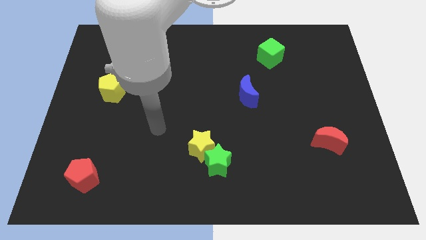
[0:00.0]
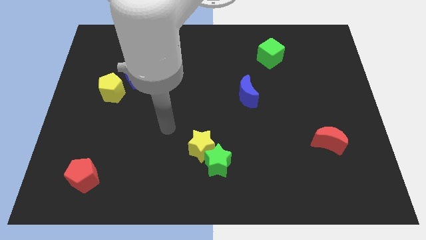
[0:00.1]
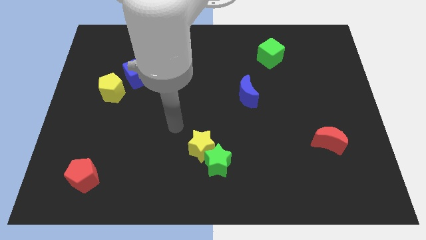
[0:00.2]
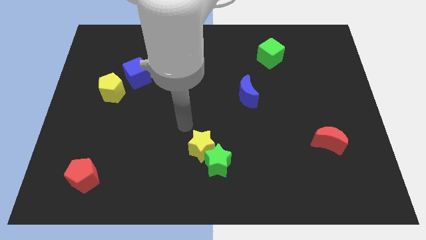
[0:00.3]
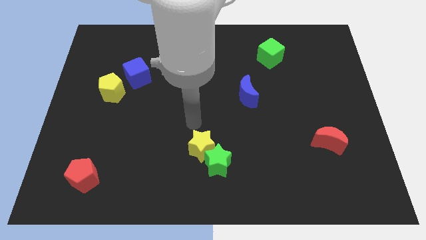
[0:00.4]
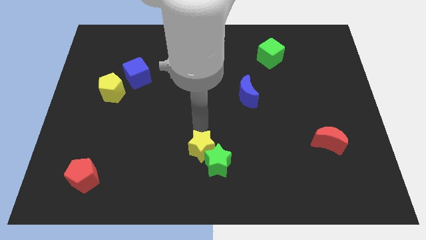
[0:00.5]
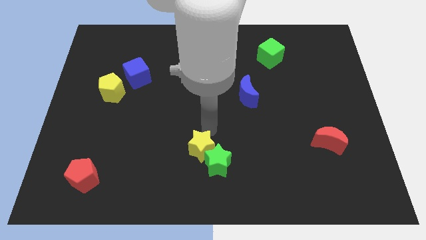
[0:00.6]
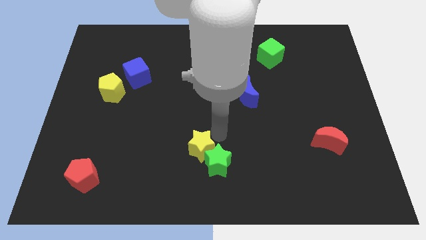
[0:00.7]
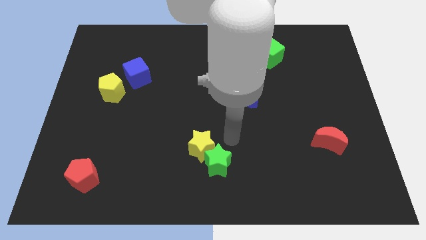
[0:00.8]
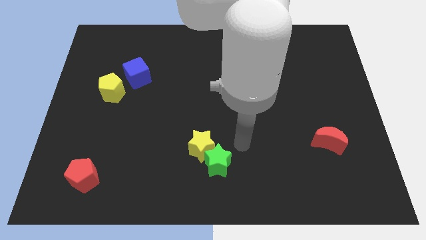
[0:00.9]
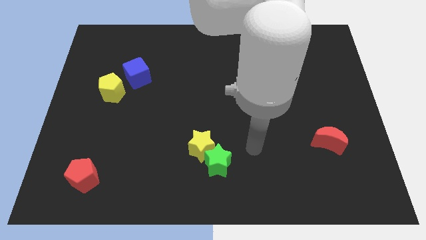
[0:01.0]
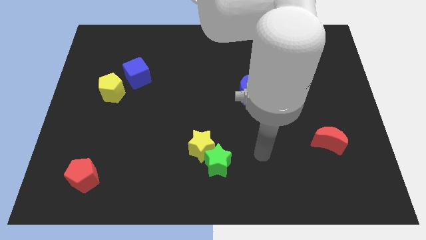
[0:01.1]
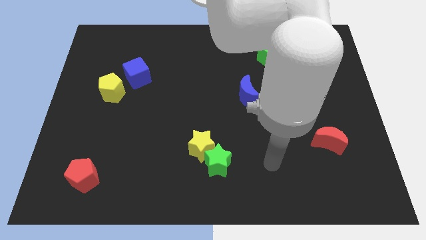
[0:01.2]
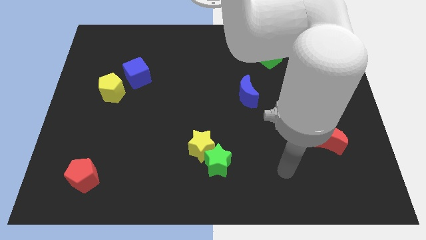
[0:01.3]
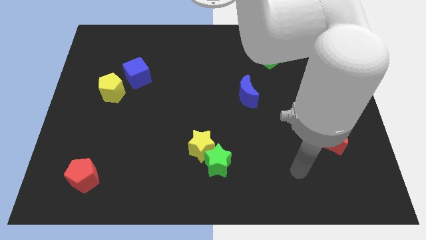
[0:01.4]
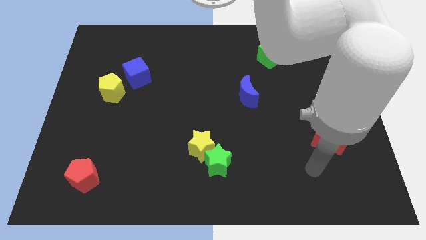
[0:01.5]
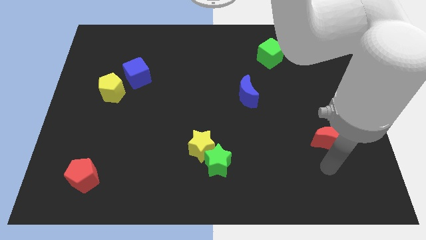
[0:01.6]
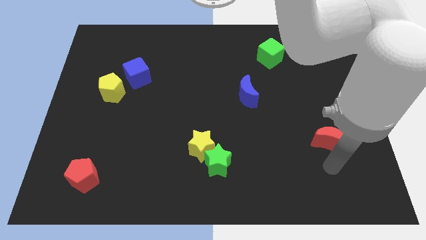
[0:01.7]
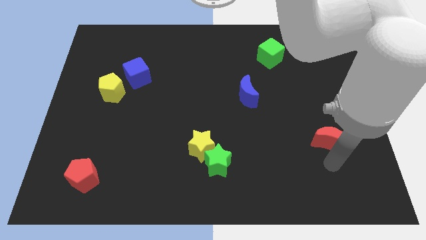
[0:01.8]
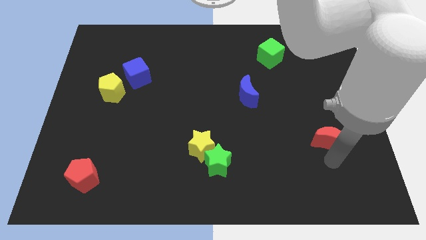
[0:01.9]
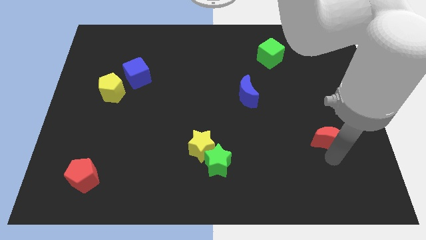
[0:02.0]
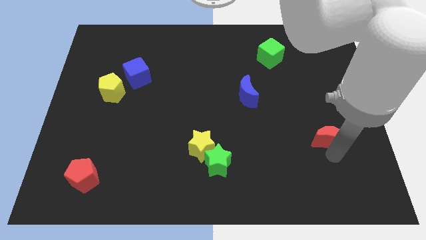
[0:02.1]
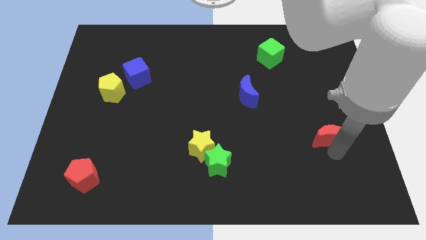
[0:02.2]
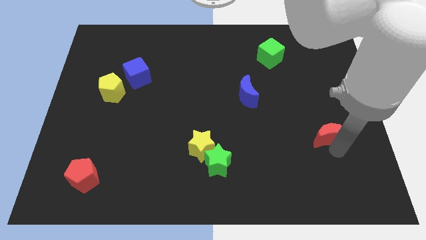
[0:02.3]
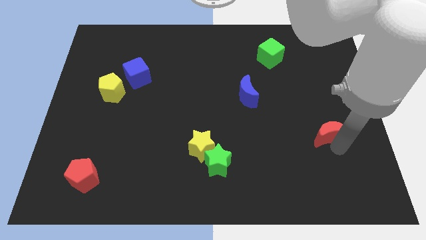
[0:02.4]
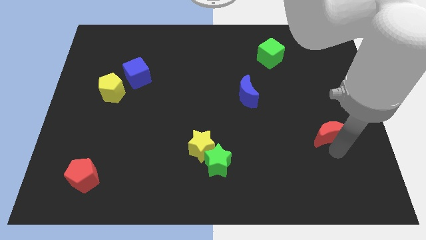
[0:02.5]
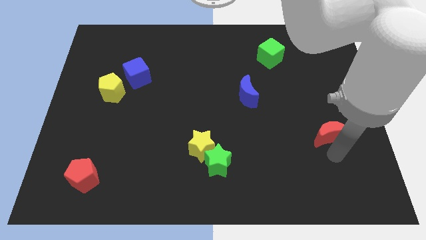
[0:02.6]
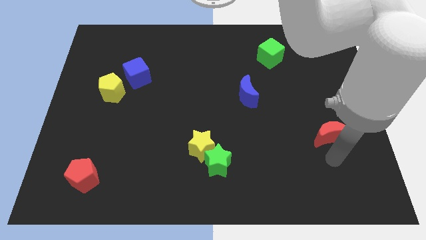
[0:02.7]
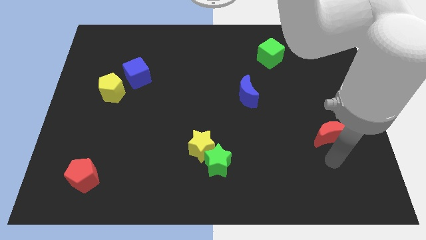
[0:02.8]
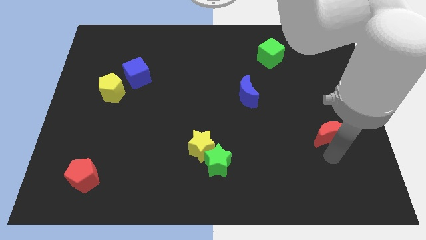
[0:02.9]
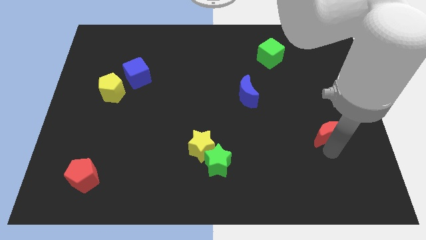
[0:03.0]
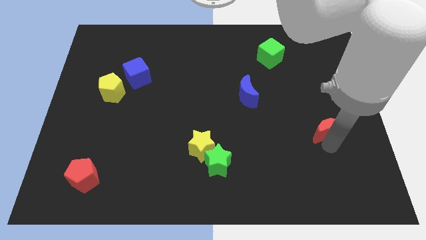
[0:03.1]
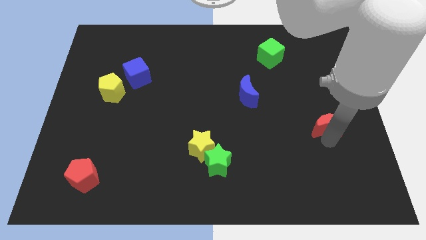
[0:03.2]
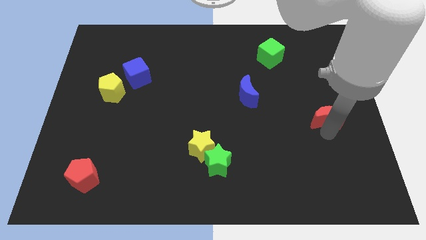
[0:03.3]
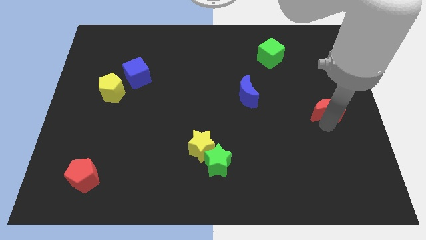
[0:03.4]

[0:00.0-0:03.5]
slide the red moon upwards a bit

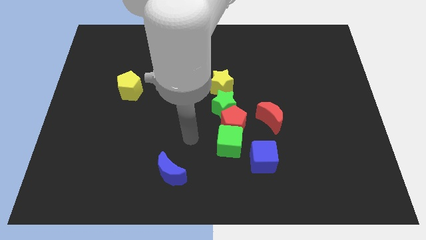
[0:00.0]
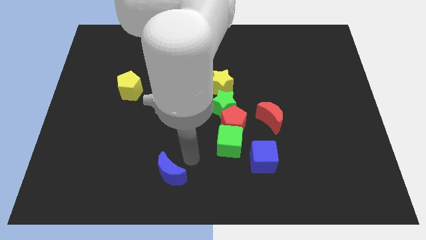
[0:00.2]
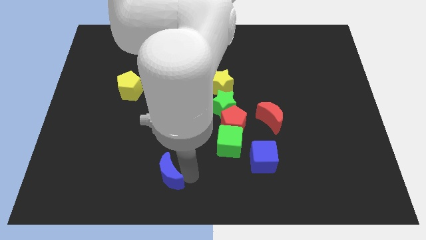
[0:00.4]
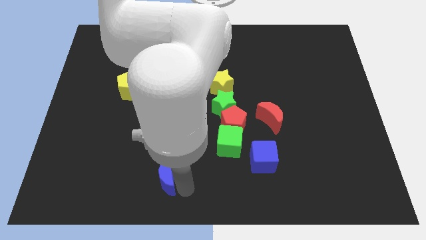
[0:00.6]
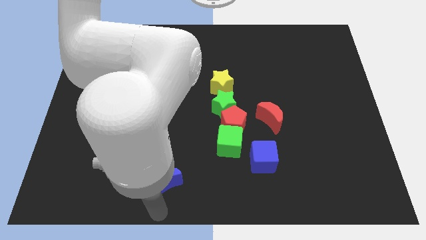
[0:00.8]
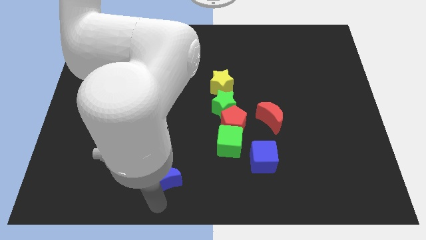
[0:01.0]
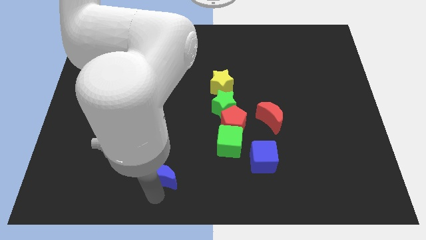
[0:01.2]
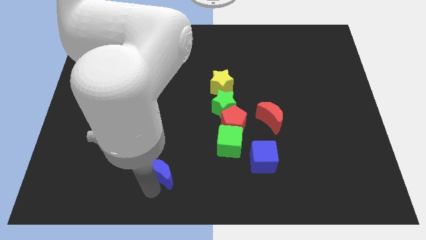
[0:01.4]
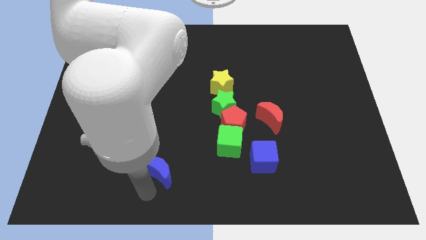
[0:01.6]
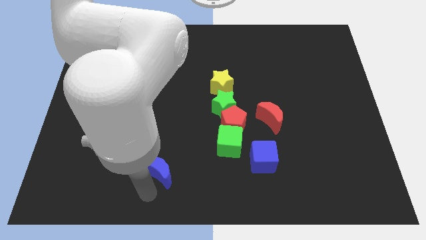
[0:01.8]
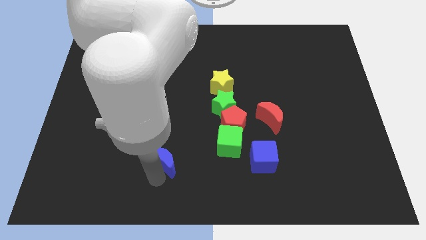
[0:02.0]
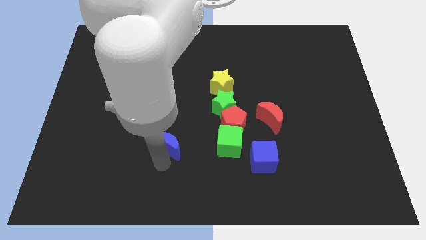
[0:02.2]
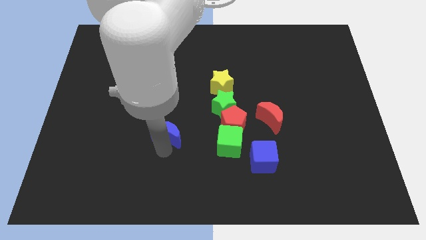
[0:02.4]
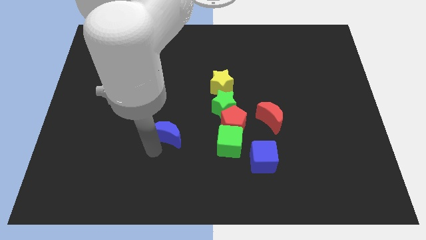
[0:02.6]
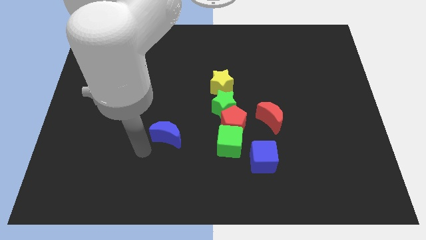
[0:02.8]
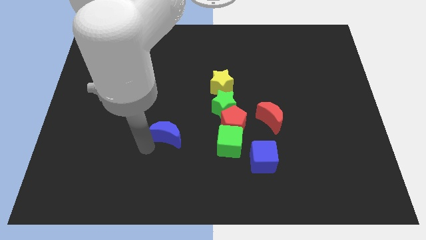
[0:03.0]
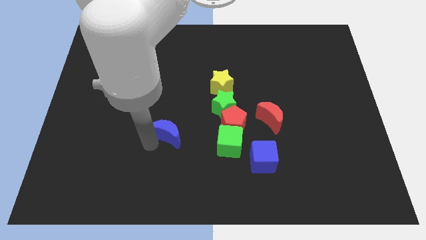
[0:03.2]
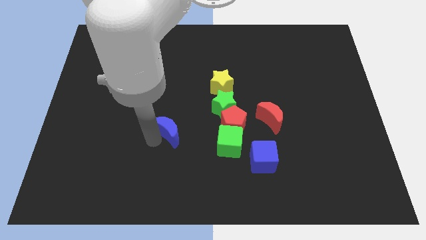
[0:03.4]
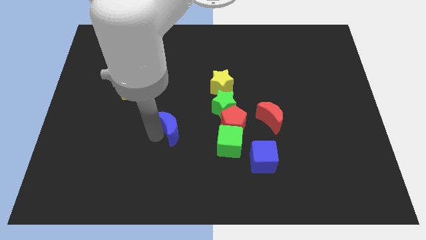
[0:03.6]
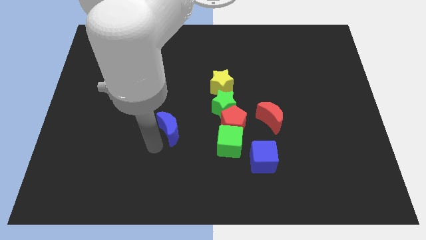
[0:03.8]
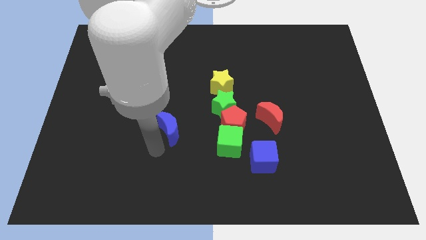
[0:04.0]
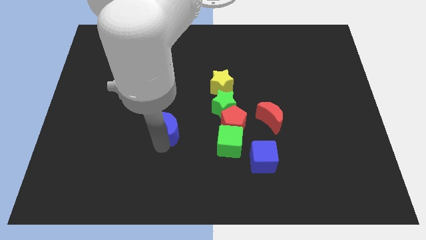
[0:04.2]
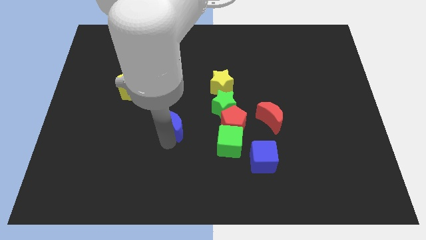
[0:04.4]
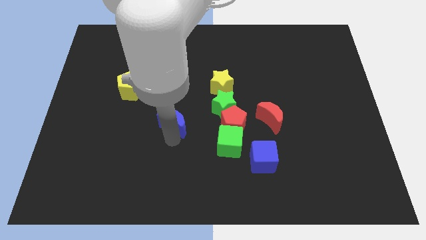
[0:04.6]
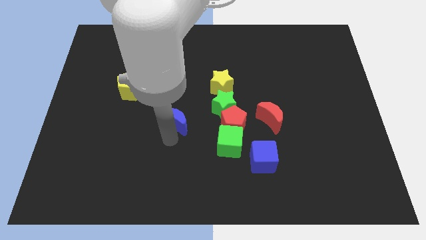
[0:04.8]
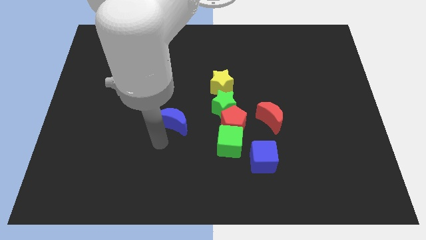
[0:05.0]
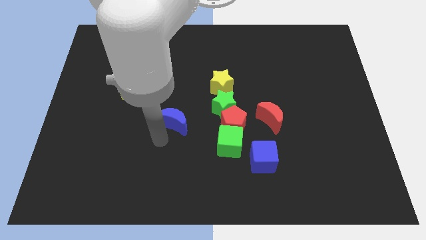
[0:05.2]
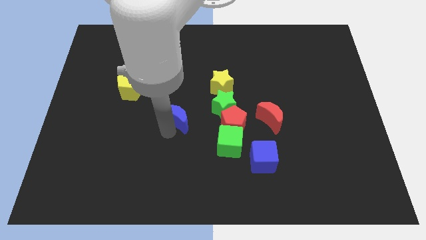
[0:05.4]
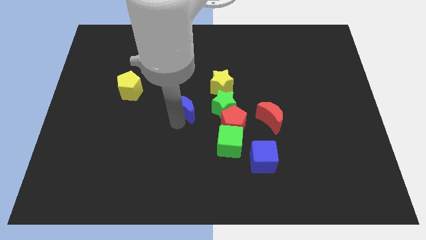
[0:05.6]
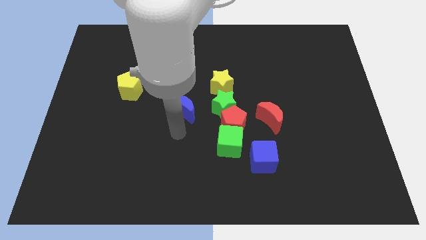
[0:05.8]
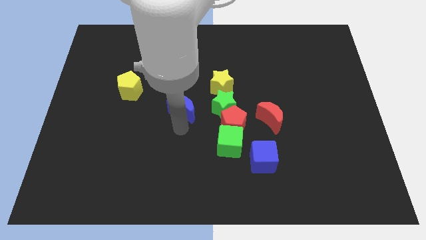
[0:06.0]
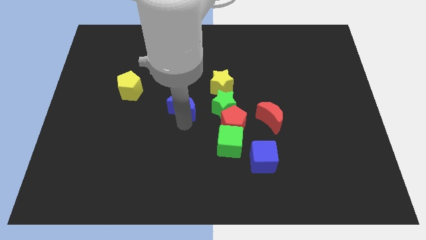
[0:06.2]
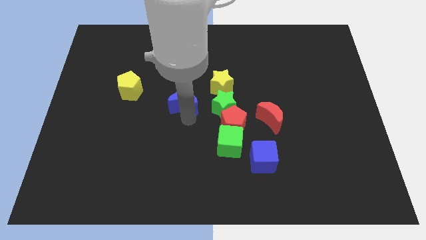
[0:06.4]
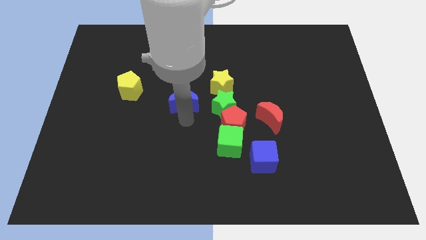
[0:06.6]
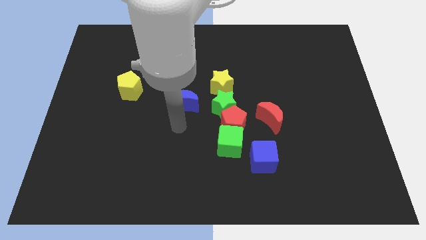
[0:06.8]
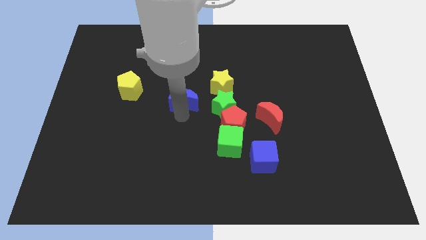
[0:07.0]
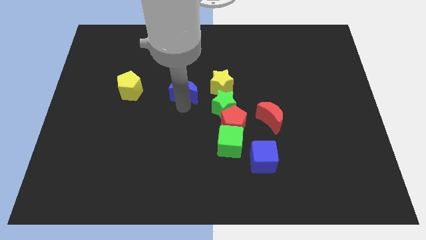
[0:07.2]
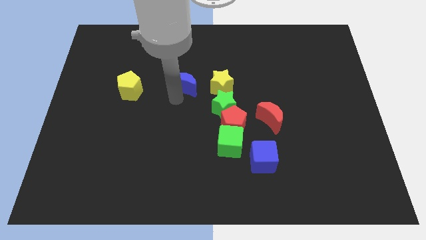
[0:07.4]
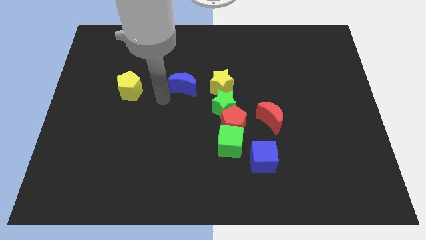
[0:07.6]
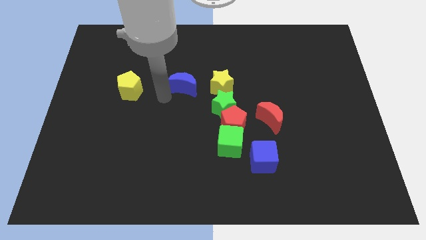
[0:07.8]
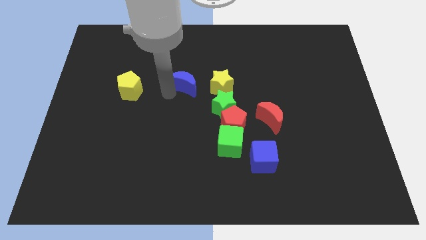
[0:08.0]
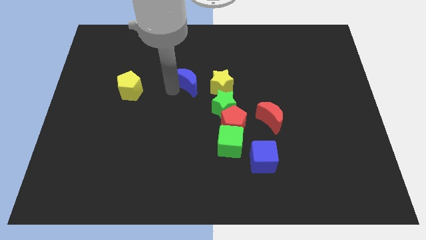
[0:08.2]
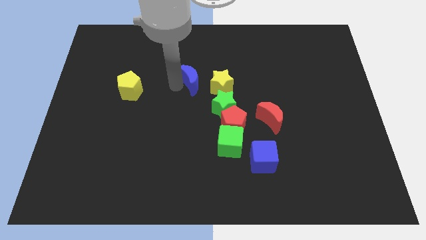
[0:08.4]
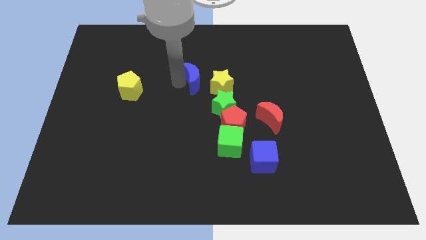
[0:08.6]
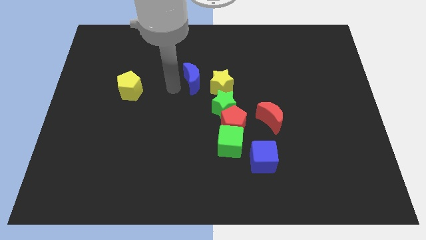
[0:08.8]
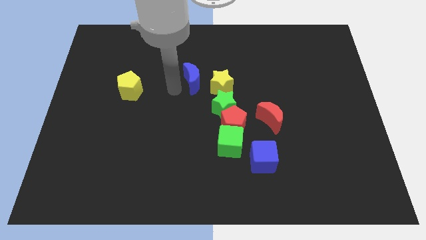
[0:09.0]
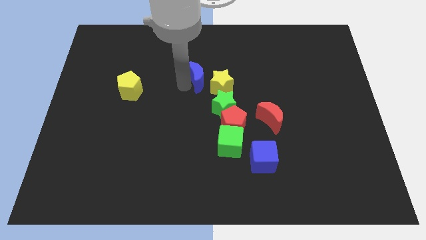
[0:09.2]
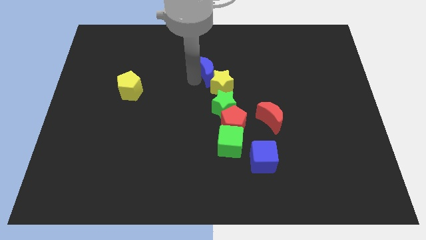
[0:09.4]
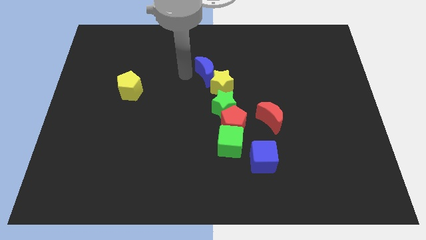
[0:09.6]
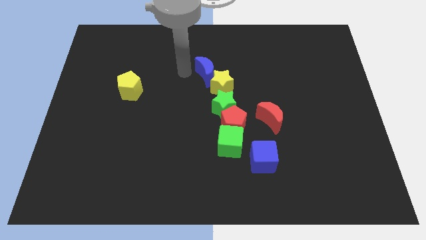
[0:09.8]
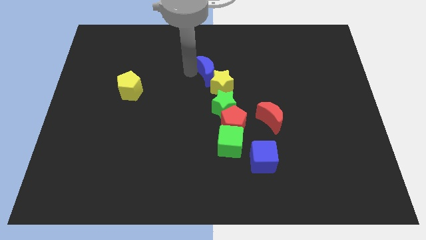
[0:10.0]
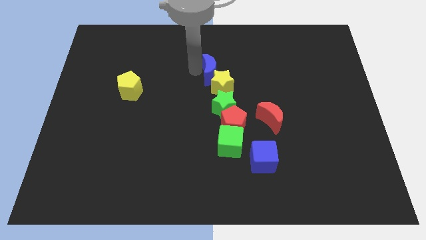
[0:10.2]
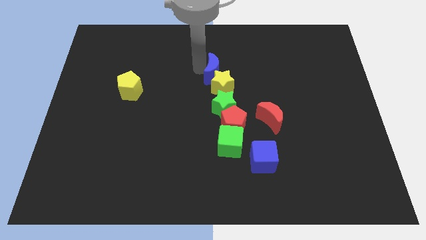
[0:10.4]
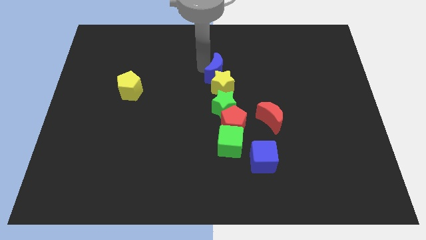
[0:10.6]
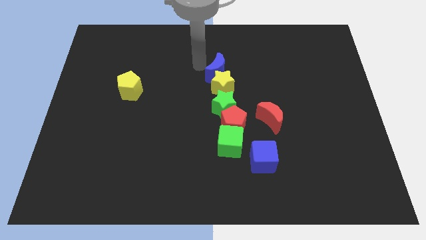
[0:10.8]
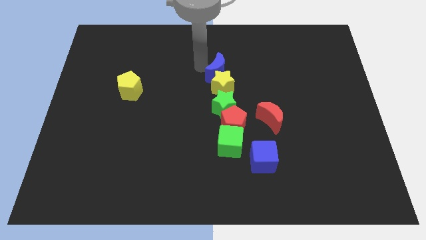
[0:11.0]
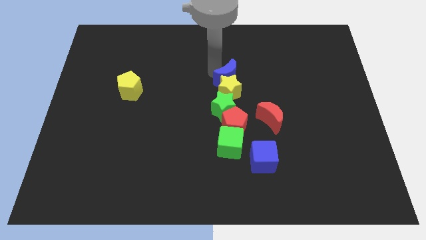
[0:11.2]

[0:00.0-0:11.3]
push the blue moon up and to the right
